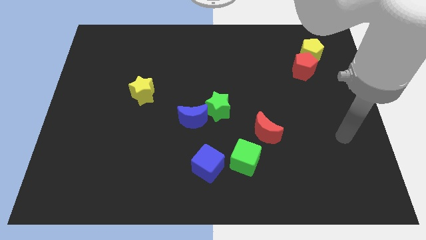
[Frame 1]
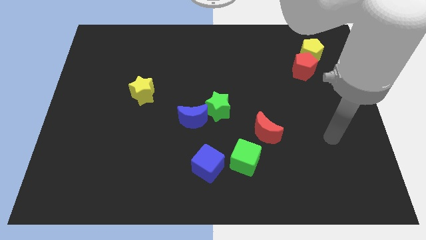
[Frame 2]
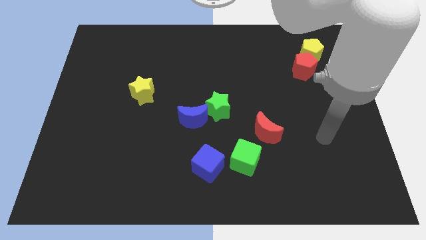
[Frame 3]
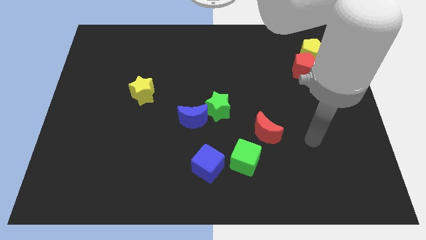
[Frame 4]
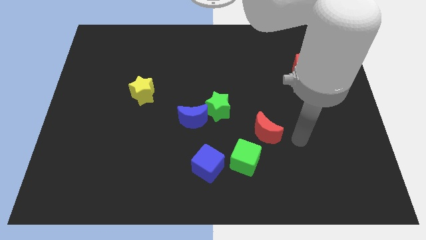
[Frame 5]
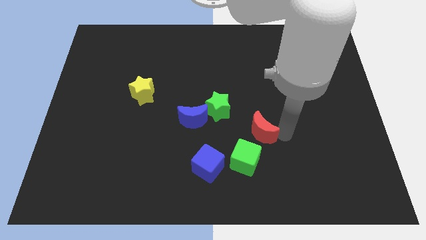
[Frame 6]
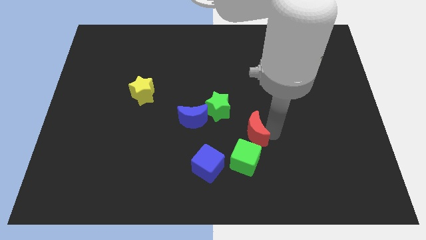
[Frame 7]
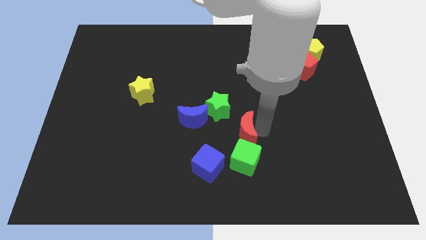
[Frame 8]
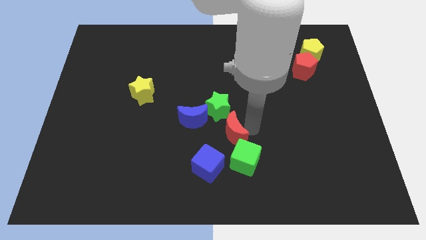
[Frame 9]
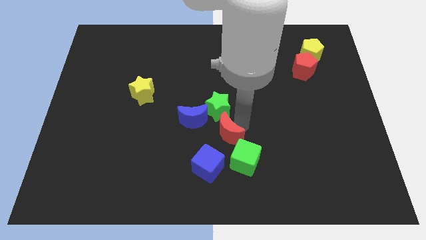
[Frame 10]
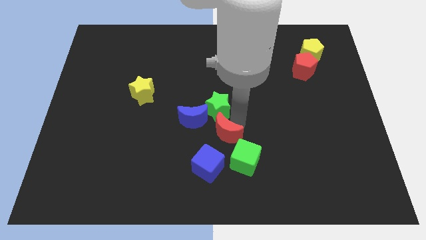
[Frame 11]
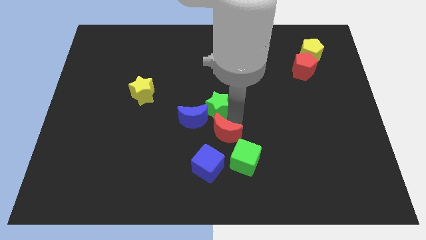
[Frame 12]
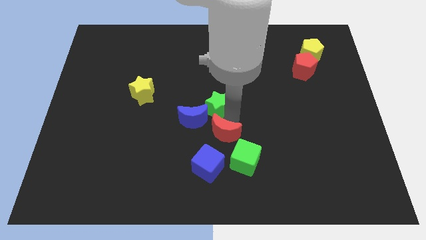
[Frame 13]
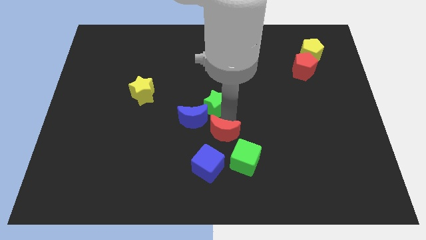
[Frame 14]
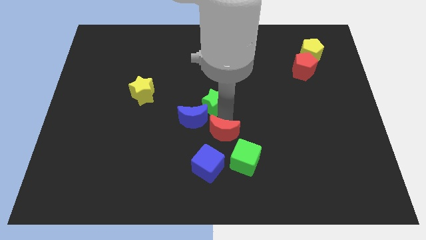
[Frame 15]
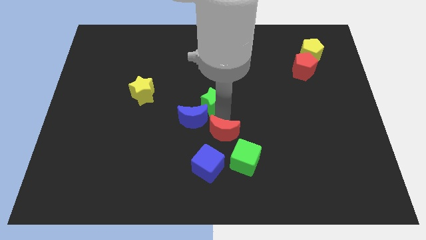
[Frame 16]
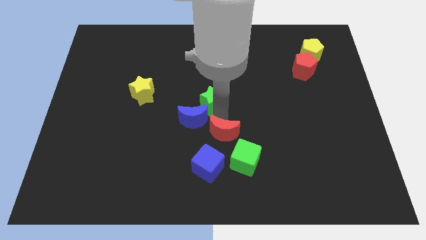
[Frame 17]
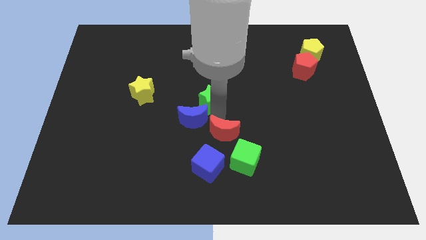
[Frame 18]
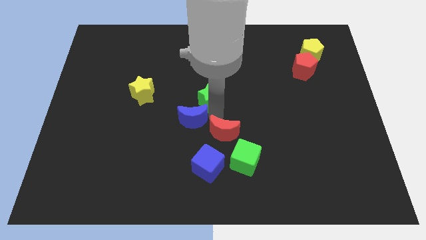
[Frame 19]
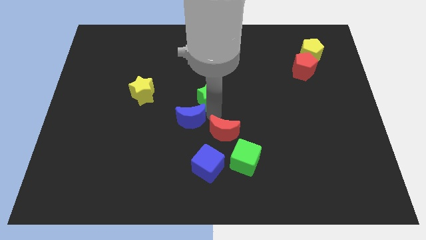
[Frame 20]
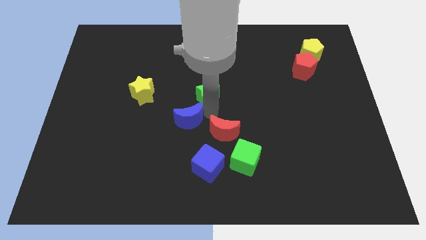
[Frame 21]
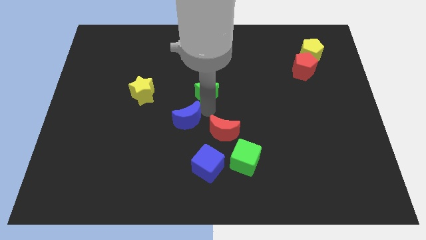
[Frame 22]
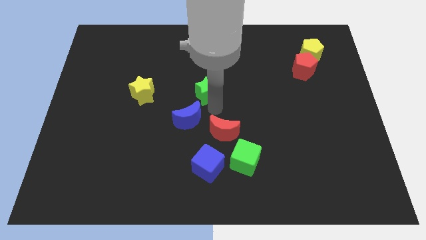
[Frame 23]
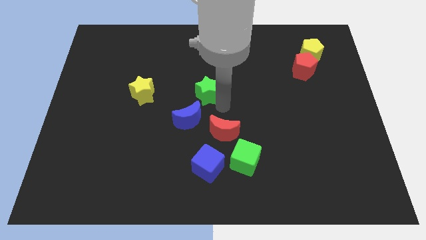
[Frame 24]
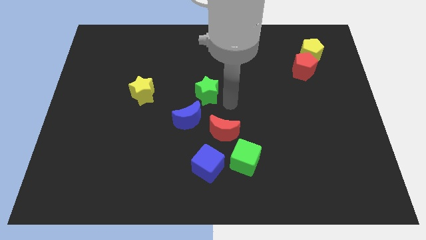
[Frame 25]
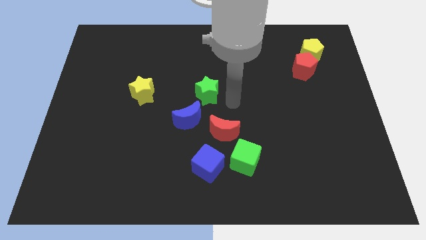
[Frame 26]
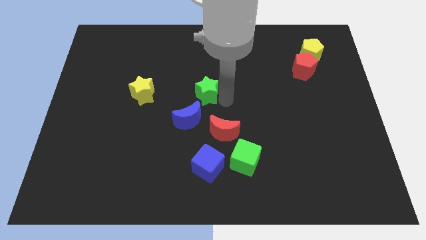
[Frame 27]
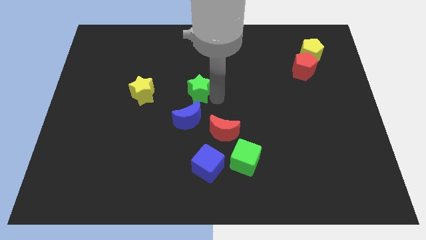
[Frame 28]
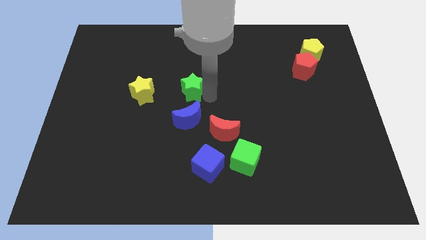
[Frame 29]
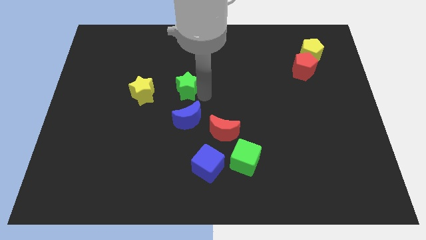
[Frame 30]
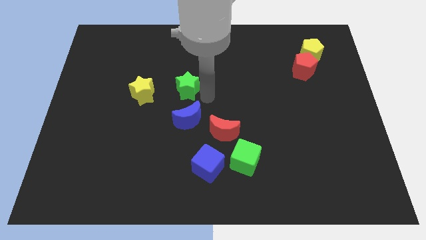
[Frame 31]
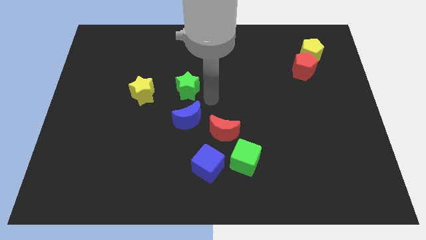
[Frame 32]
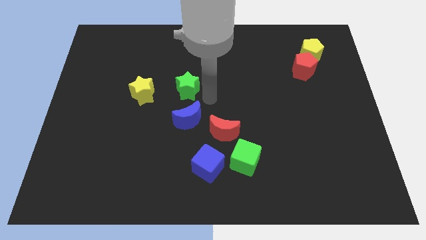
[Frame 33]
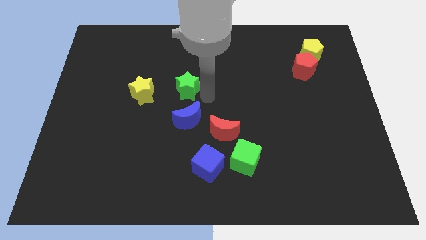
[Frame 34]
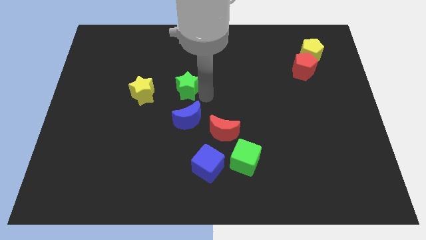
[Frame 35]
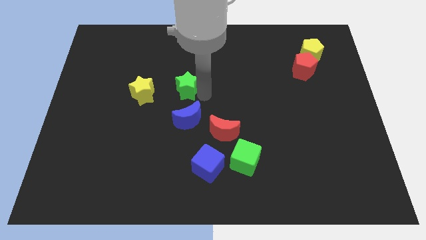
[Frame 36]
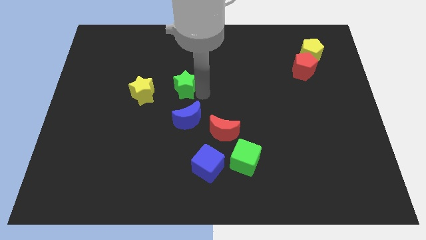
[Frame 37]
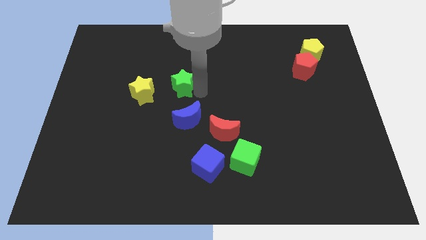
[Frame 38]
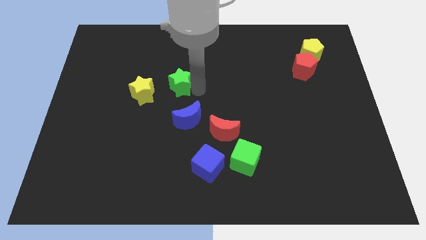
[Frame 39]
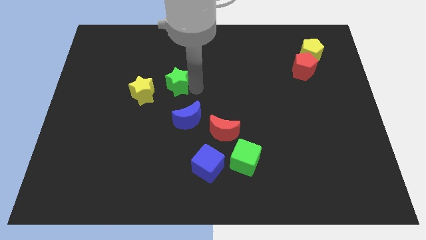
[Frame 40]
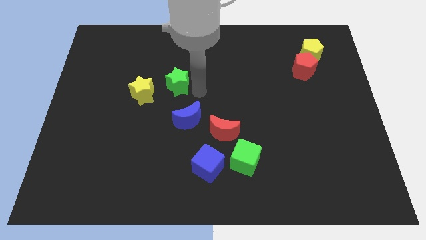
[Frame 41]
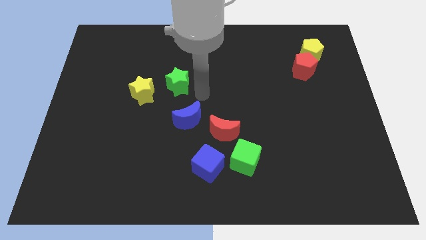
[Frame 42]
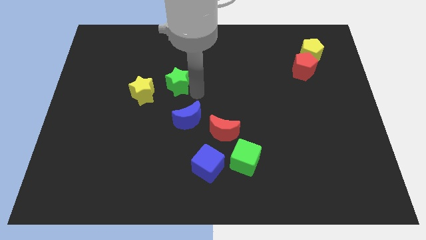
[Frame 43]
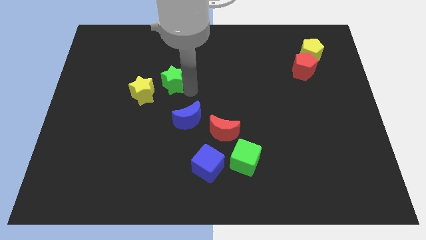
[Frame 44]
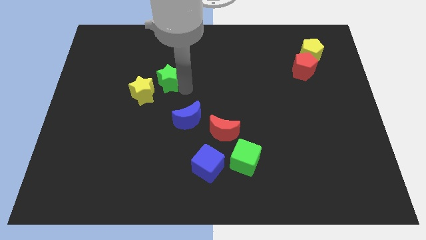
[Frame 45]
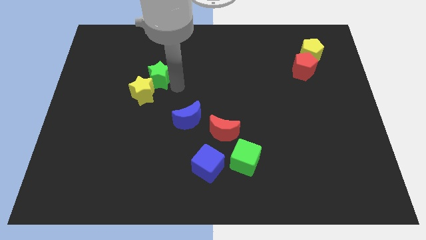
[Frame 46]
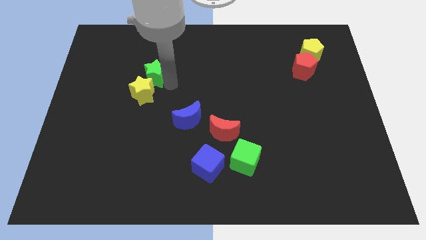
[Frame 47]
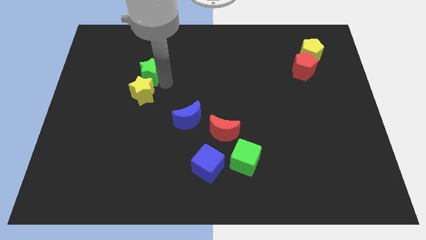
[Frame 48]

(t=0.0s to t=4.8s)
slide the green star to the top left of the yellow star

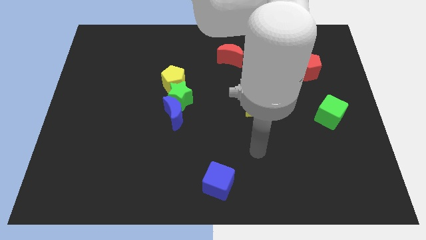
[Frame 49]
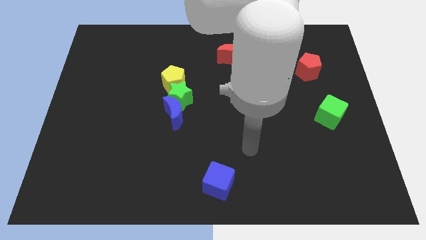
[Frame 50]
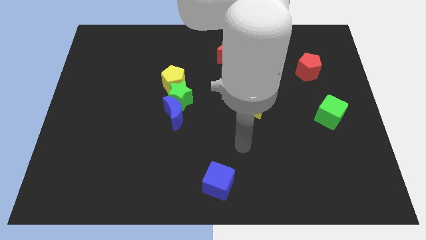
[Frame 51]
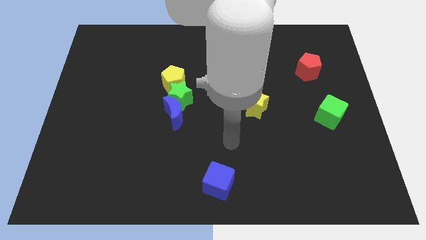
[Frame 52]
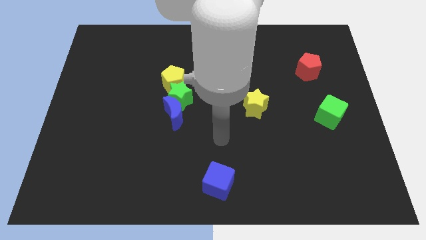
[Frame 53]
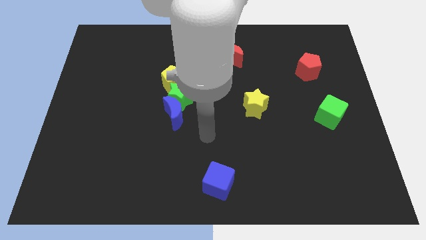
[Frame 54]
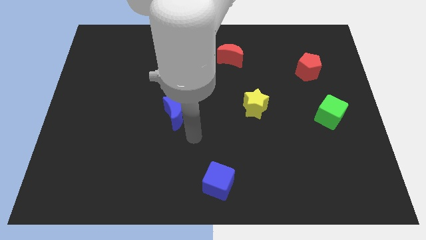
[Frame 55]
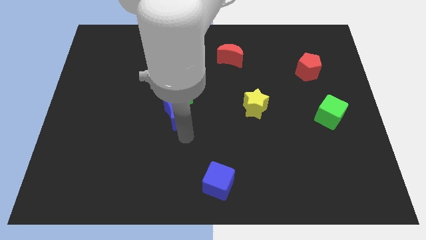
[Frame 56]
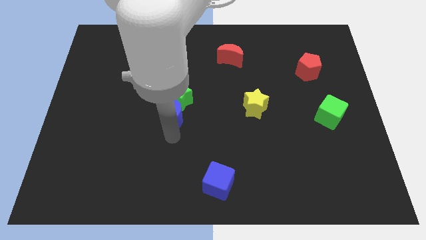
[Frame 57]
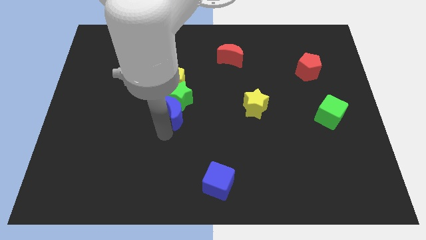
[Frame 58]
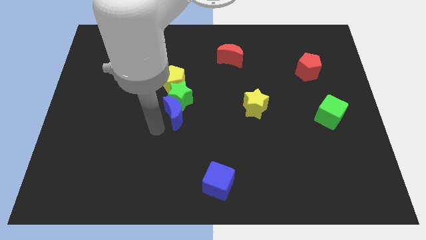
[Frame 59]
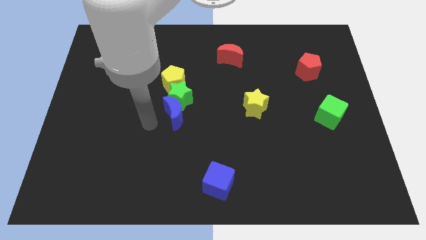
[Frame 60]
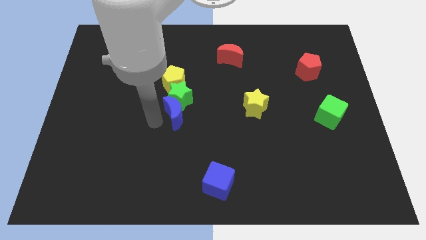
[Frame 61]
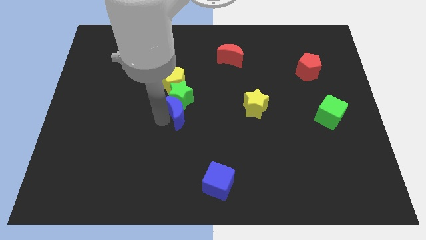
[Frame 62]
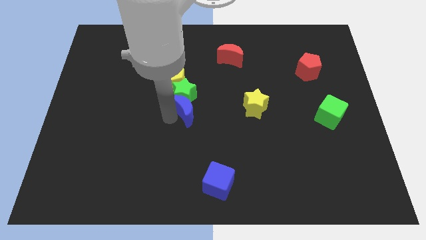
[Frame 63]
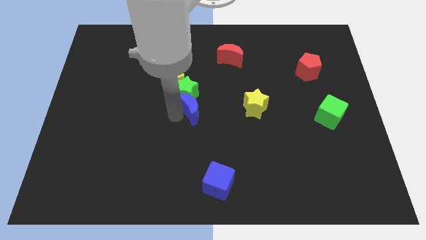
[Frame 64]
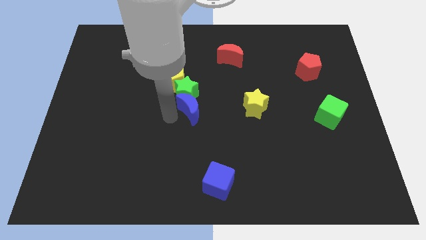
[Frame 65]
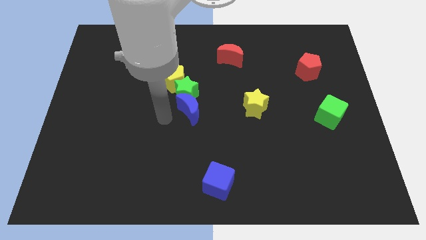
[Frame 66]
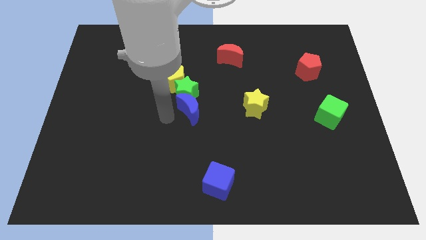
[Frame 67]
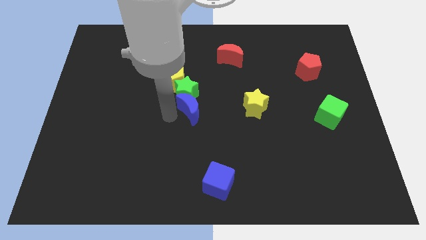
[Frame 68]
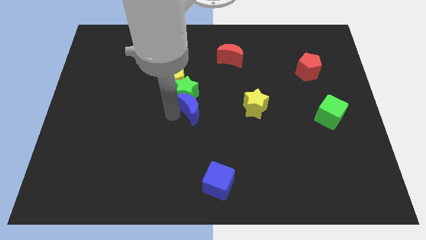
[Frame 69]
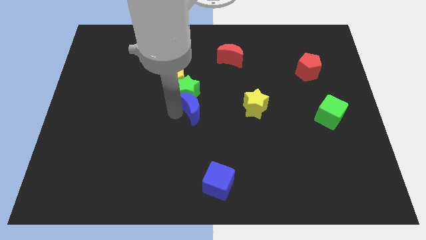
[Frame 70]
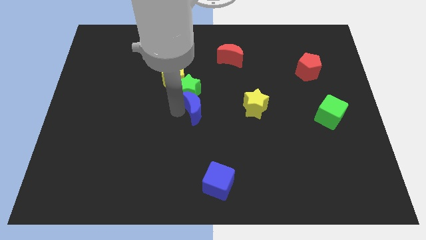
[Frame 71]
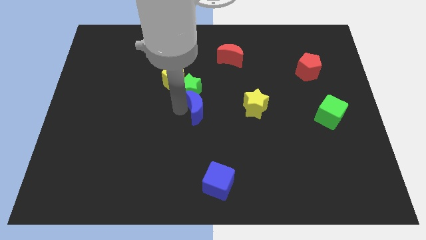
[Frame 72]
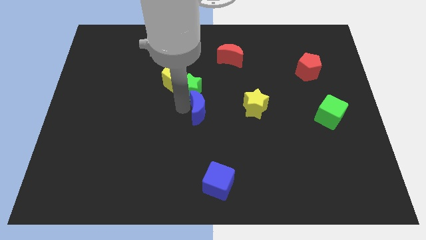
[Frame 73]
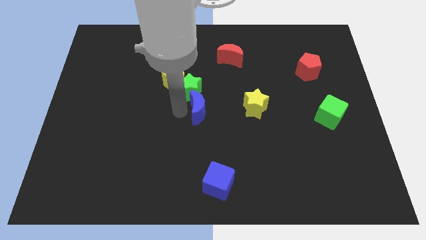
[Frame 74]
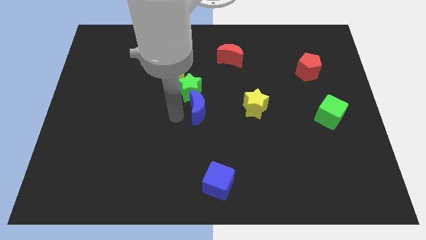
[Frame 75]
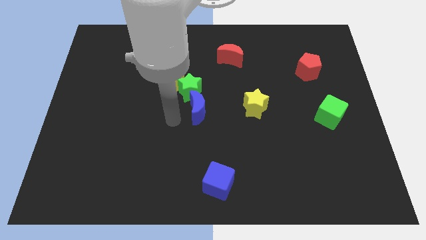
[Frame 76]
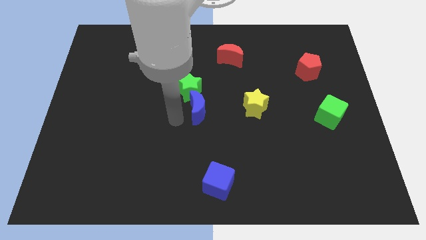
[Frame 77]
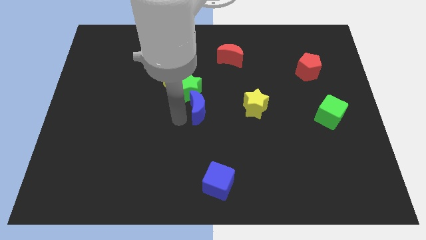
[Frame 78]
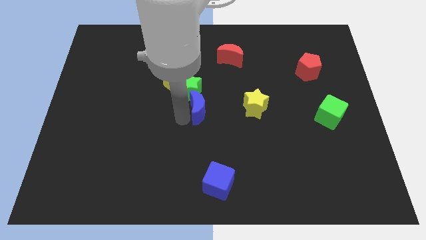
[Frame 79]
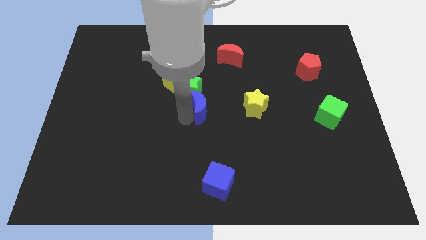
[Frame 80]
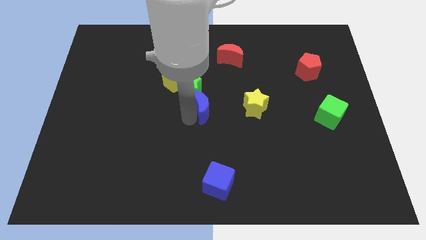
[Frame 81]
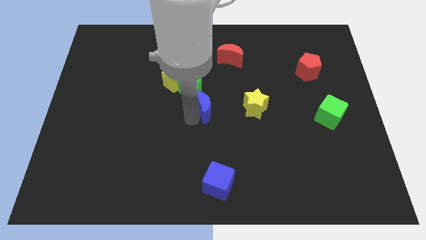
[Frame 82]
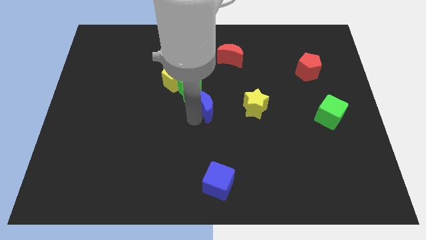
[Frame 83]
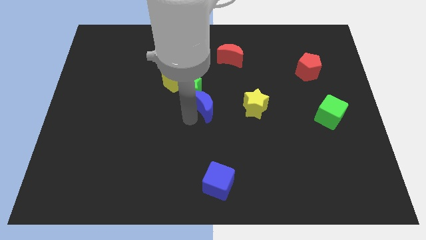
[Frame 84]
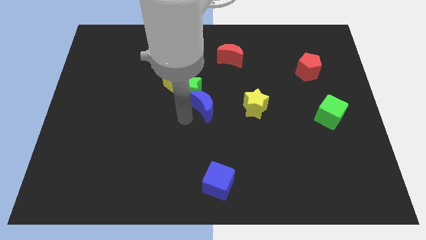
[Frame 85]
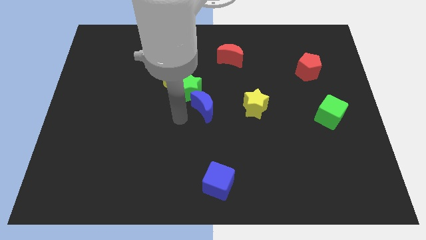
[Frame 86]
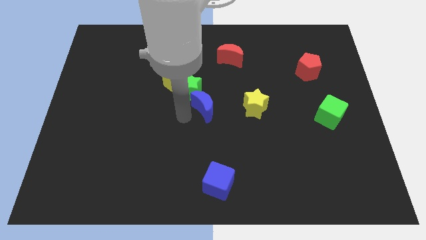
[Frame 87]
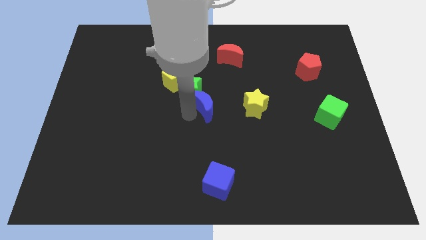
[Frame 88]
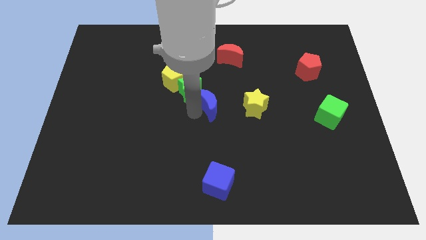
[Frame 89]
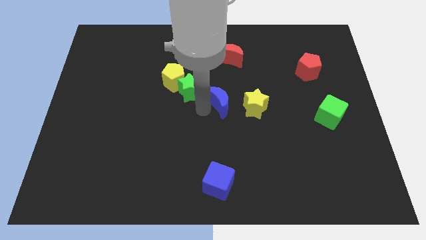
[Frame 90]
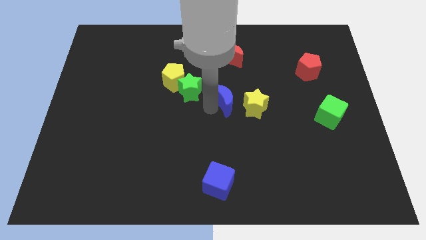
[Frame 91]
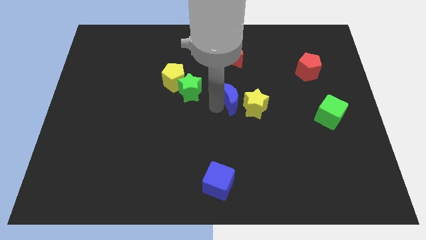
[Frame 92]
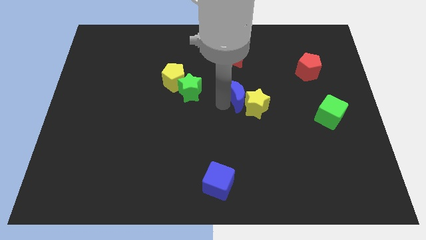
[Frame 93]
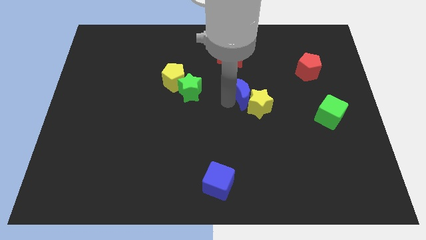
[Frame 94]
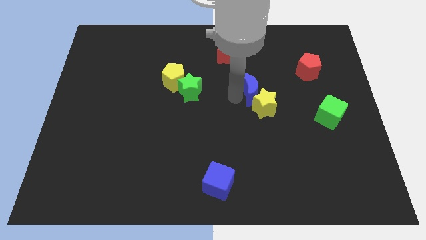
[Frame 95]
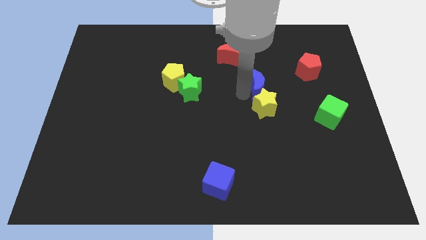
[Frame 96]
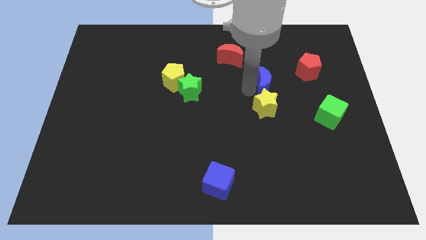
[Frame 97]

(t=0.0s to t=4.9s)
put the blue moon to the top right of the yellow star
